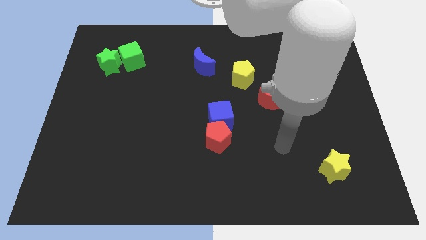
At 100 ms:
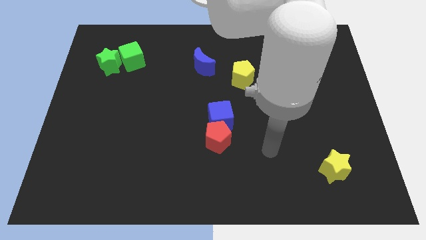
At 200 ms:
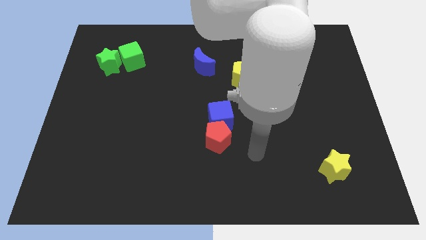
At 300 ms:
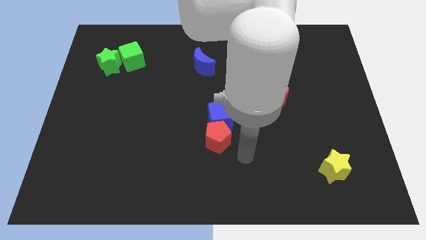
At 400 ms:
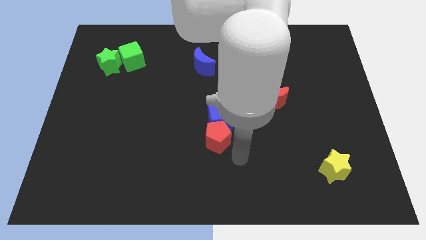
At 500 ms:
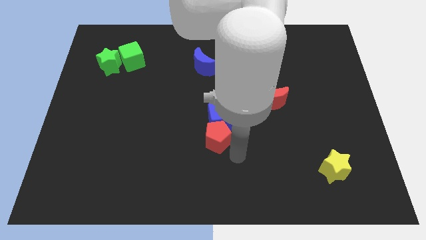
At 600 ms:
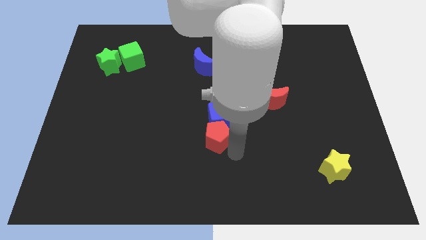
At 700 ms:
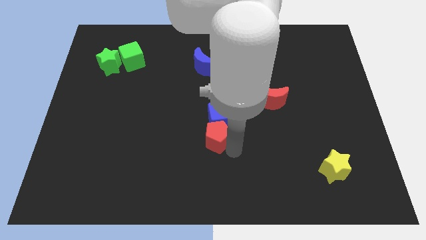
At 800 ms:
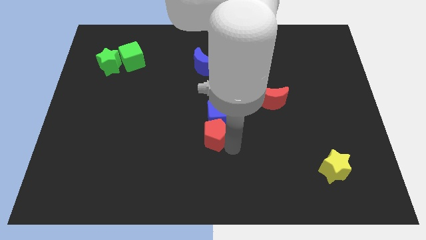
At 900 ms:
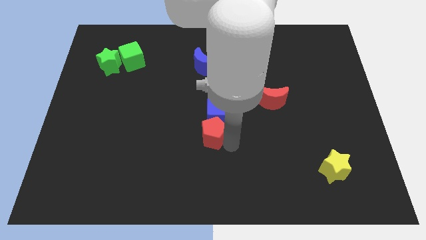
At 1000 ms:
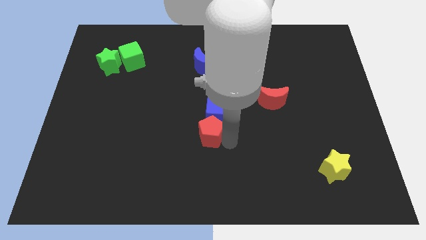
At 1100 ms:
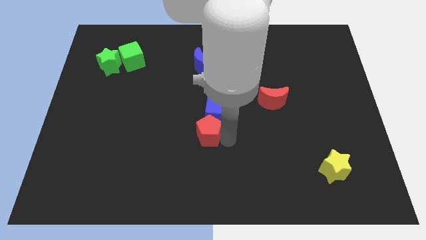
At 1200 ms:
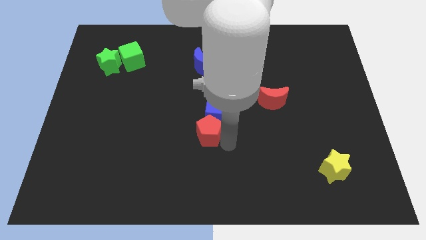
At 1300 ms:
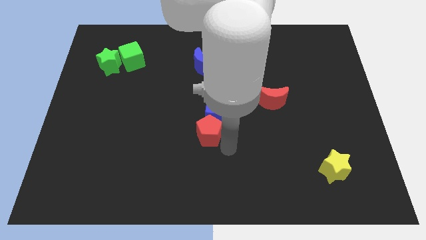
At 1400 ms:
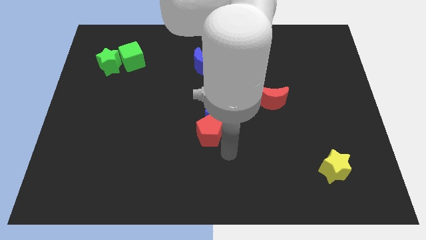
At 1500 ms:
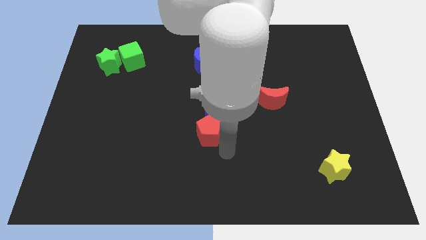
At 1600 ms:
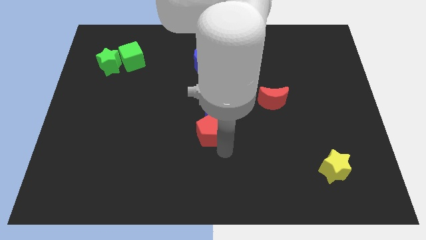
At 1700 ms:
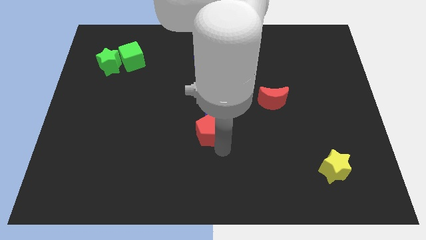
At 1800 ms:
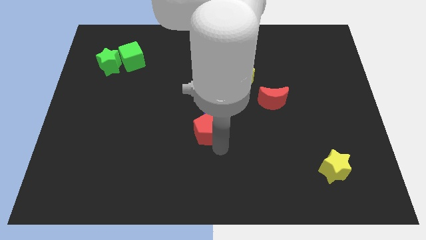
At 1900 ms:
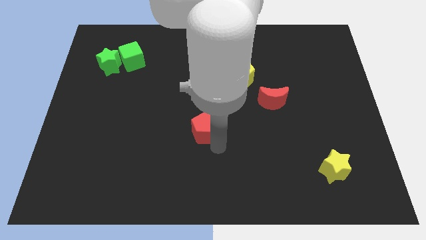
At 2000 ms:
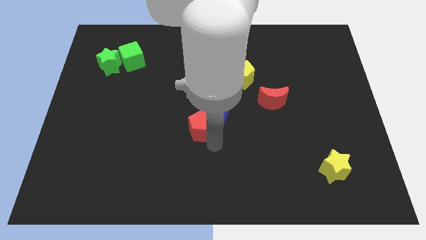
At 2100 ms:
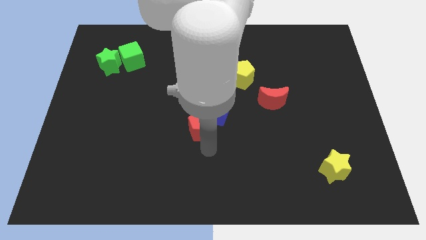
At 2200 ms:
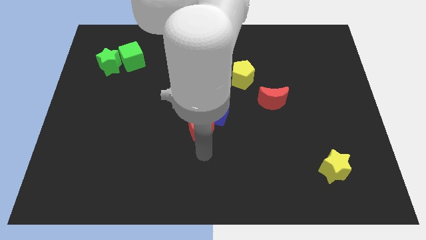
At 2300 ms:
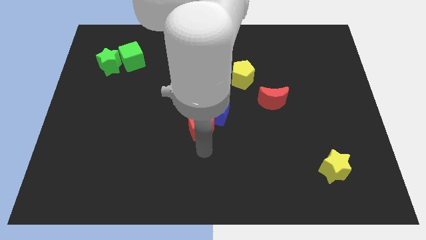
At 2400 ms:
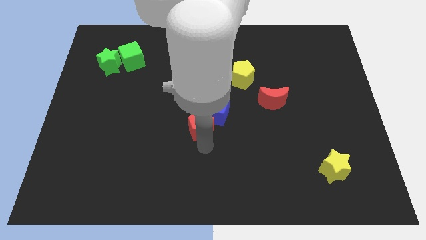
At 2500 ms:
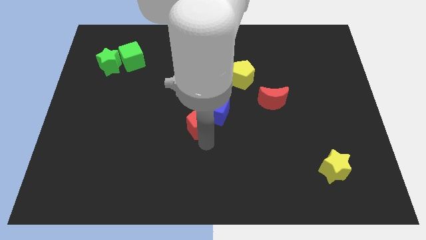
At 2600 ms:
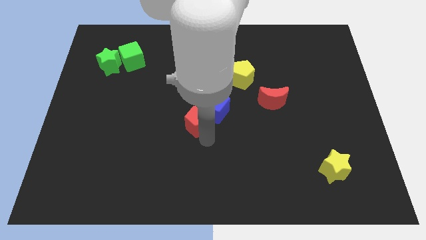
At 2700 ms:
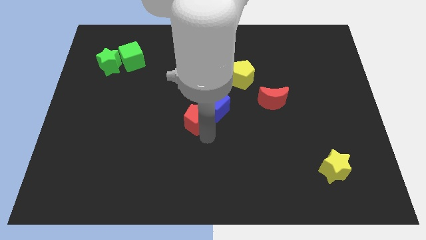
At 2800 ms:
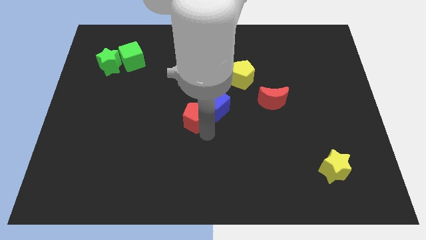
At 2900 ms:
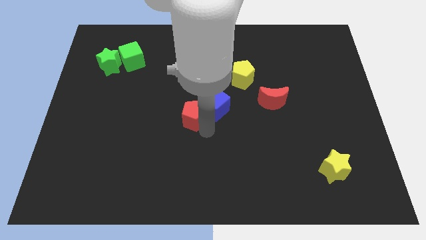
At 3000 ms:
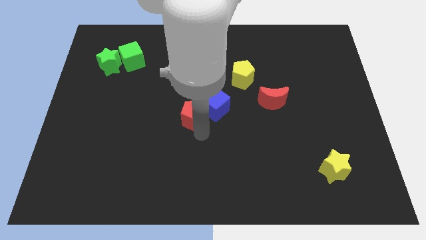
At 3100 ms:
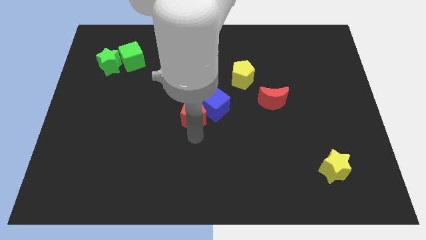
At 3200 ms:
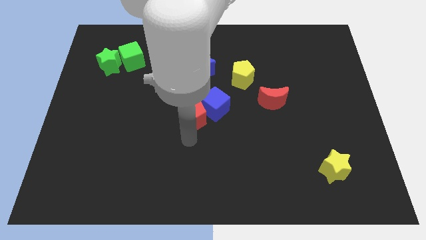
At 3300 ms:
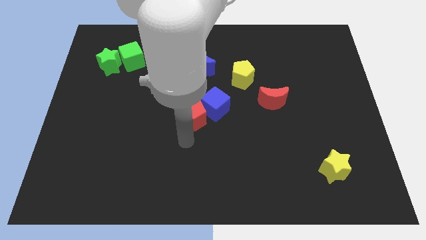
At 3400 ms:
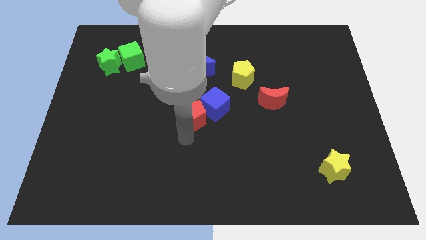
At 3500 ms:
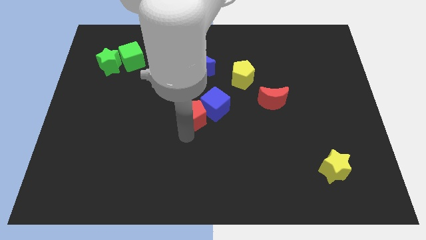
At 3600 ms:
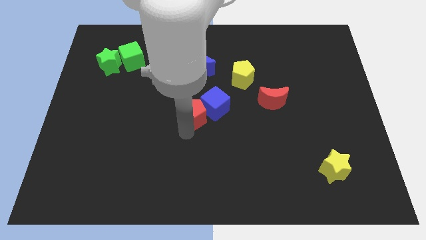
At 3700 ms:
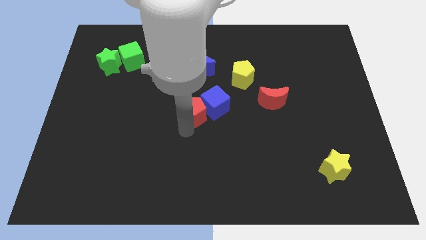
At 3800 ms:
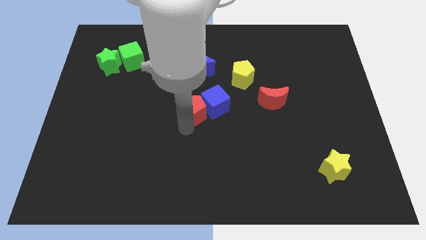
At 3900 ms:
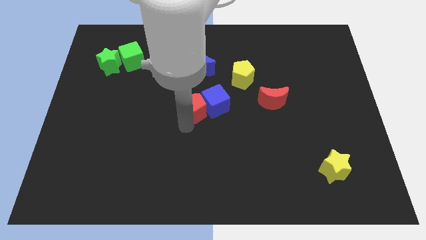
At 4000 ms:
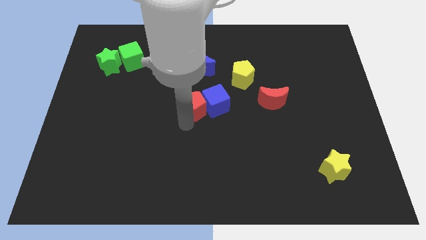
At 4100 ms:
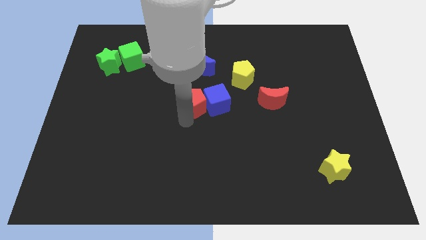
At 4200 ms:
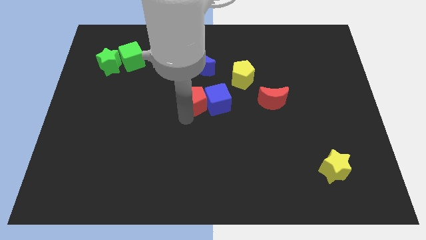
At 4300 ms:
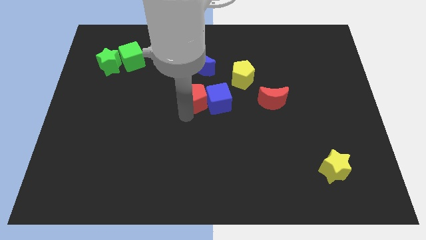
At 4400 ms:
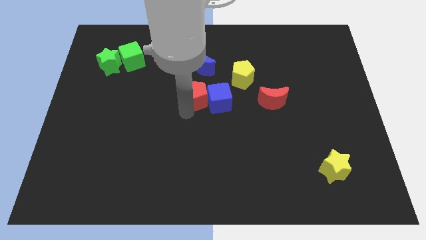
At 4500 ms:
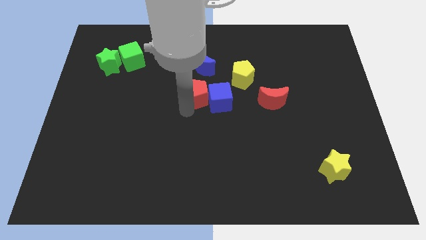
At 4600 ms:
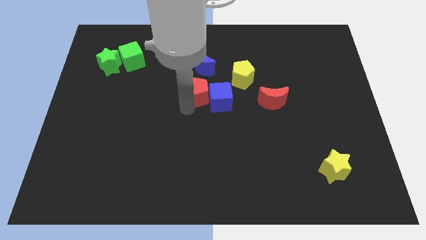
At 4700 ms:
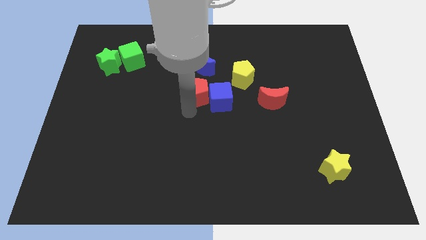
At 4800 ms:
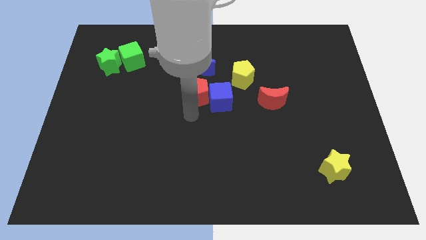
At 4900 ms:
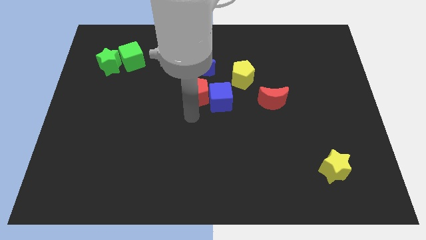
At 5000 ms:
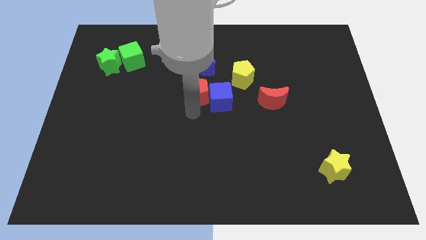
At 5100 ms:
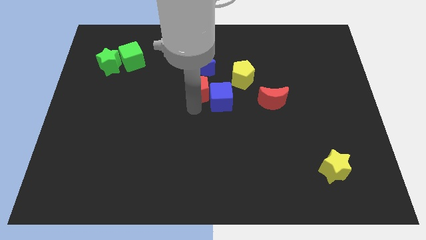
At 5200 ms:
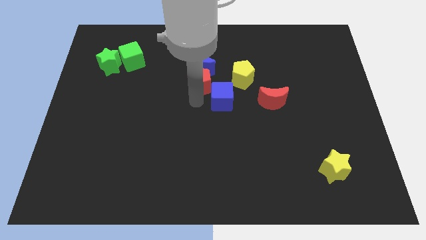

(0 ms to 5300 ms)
put the red pentagon next to the blue moon

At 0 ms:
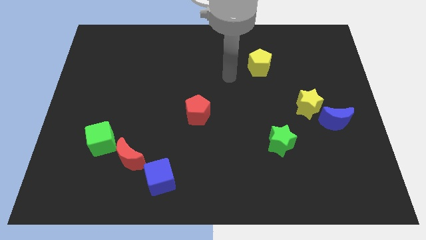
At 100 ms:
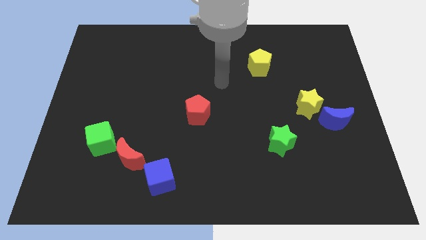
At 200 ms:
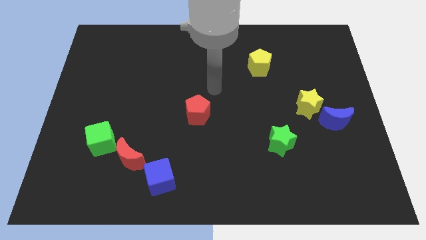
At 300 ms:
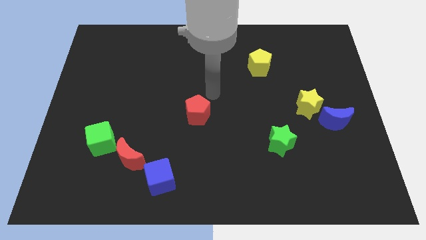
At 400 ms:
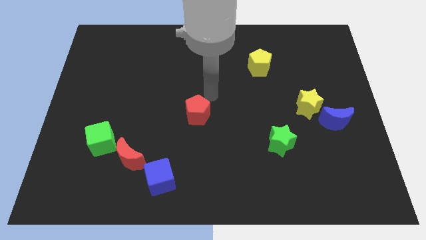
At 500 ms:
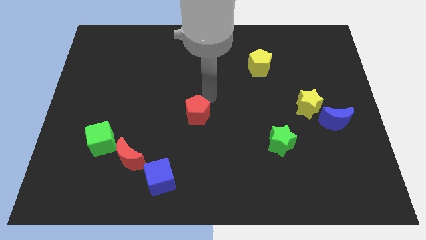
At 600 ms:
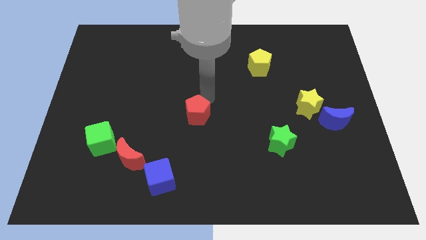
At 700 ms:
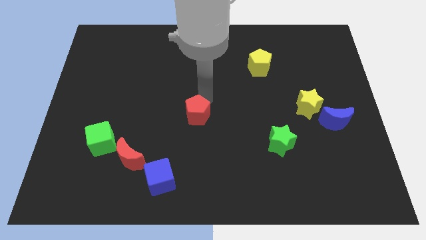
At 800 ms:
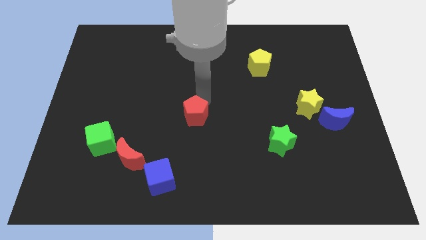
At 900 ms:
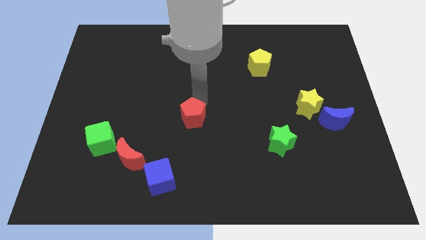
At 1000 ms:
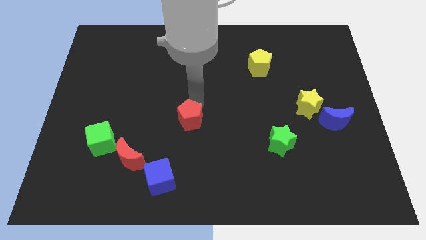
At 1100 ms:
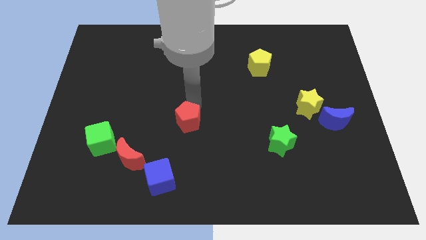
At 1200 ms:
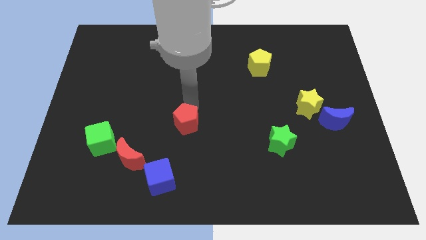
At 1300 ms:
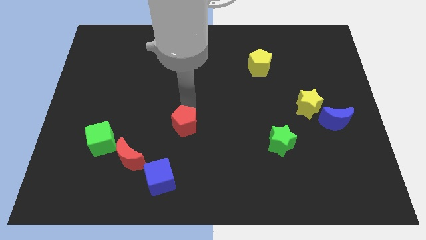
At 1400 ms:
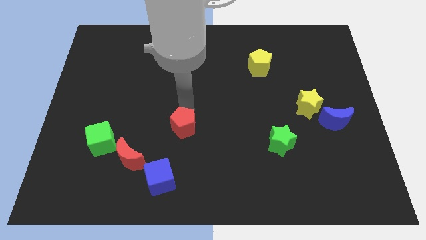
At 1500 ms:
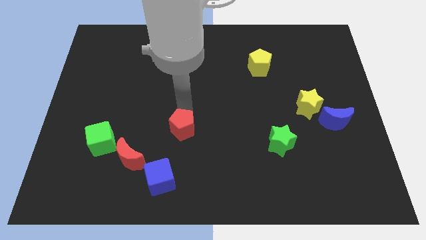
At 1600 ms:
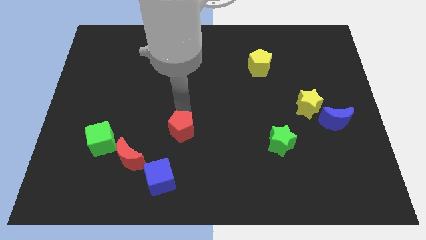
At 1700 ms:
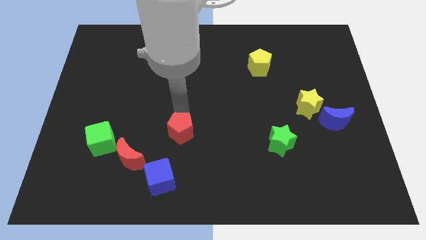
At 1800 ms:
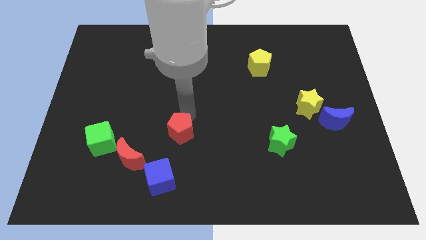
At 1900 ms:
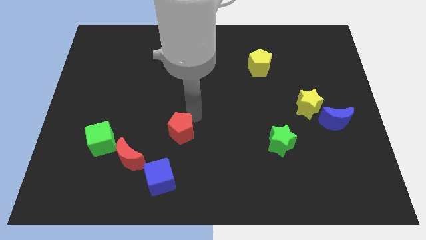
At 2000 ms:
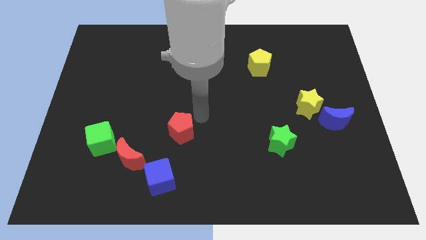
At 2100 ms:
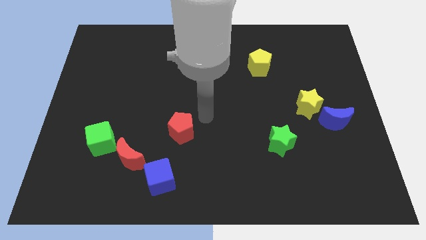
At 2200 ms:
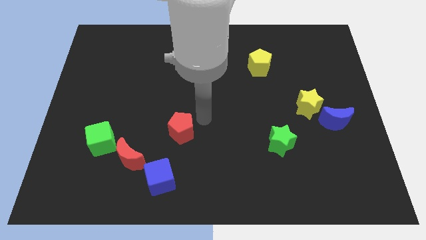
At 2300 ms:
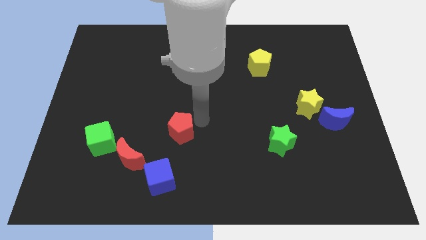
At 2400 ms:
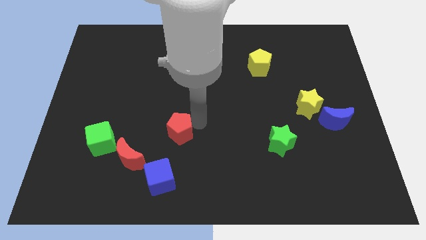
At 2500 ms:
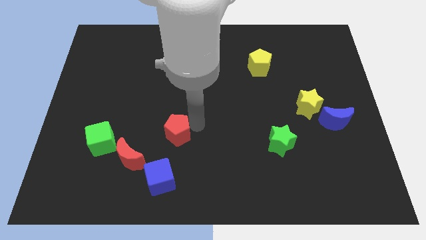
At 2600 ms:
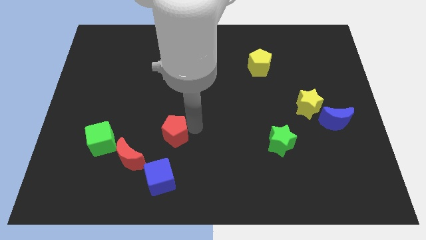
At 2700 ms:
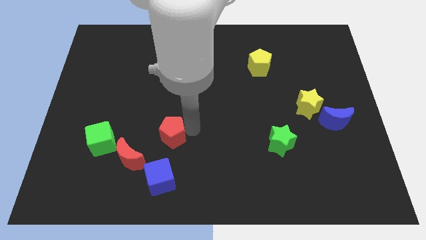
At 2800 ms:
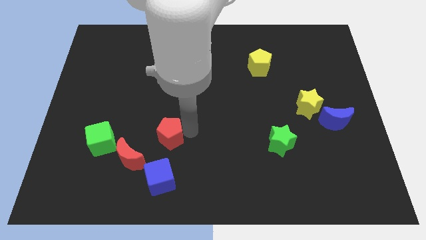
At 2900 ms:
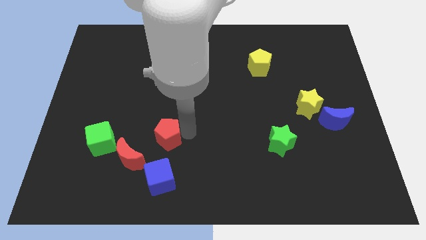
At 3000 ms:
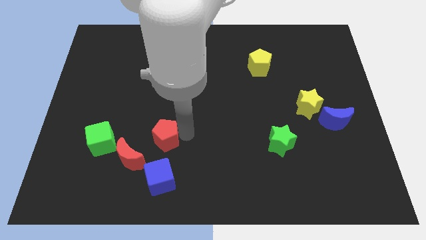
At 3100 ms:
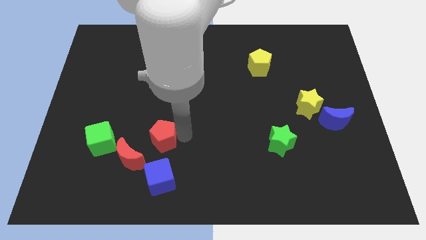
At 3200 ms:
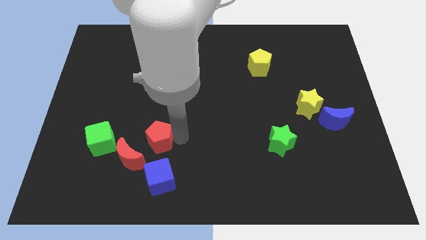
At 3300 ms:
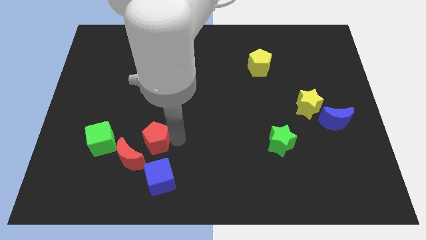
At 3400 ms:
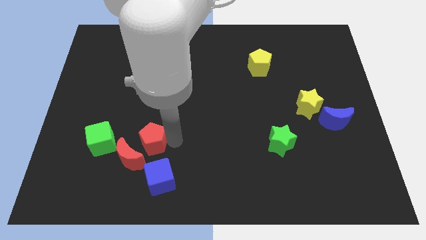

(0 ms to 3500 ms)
push the red pentagon close to the red moon
